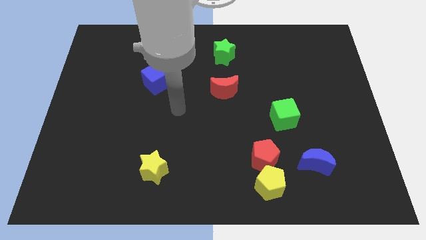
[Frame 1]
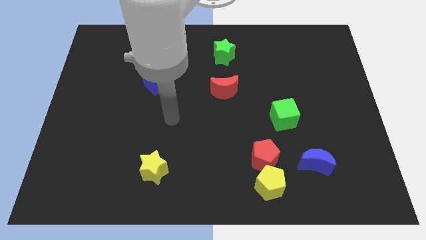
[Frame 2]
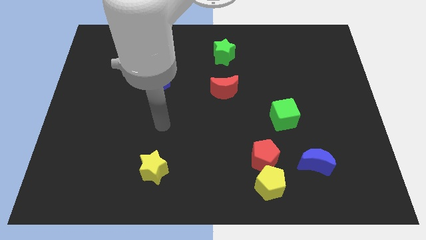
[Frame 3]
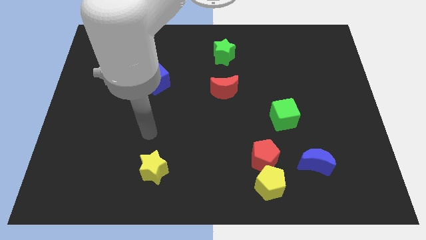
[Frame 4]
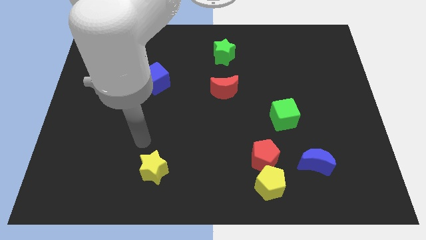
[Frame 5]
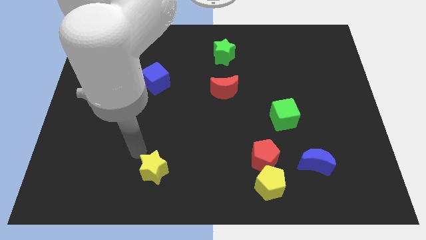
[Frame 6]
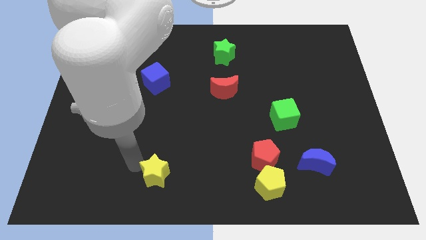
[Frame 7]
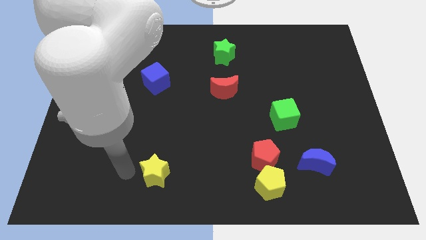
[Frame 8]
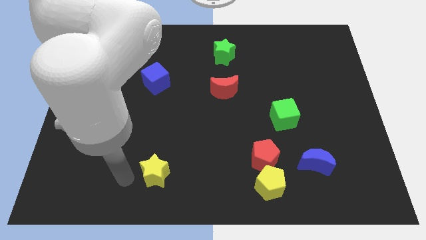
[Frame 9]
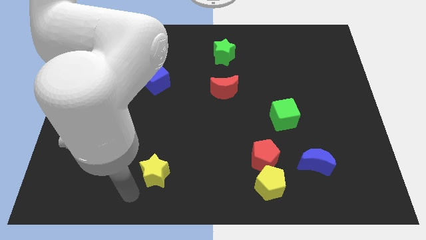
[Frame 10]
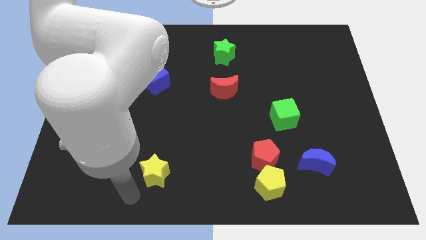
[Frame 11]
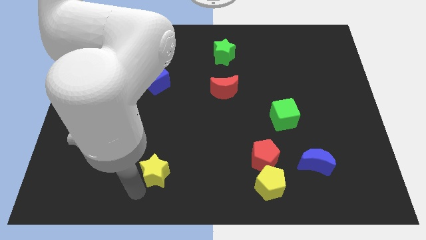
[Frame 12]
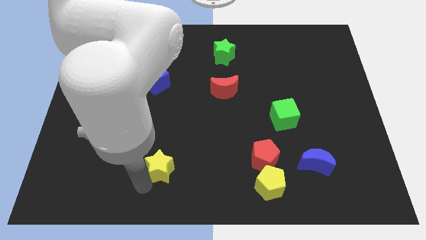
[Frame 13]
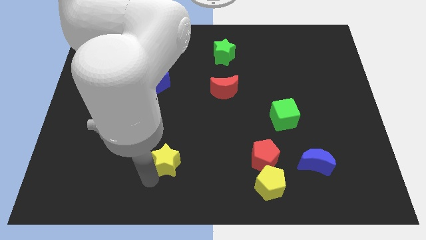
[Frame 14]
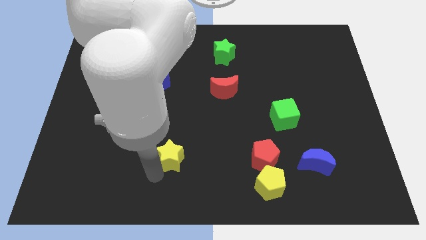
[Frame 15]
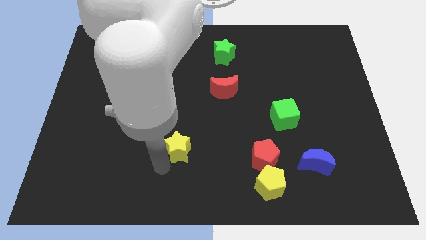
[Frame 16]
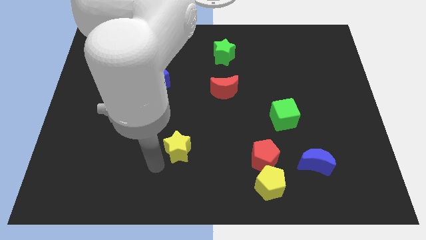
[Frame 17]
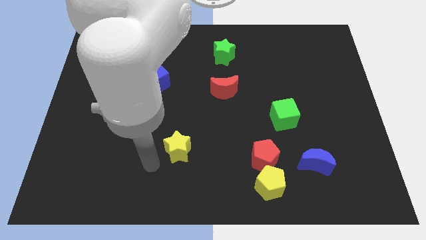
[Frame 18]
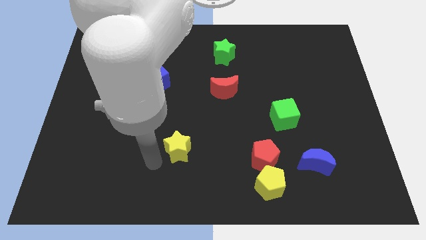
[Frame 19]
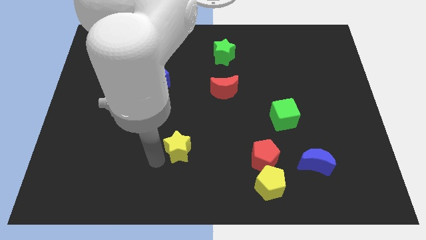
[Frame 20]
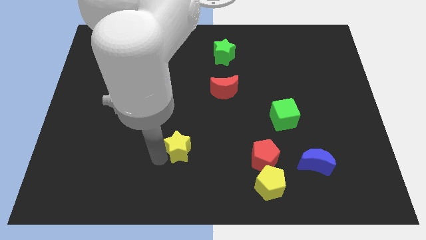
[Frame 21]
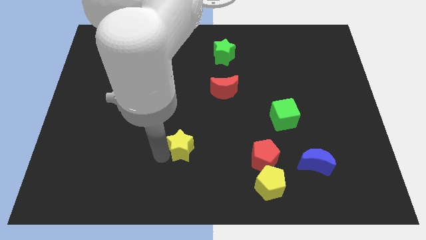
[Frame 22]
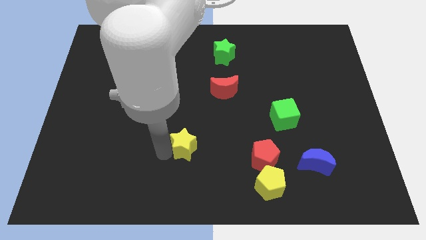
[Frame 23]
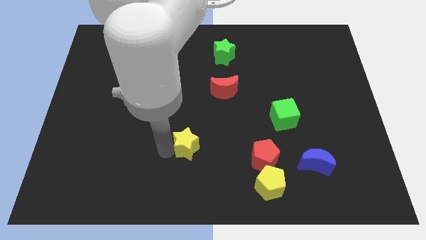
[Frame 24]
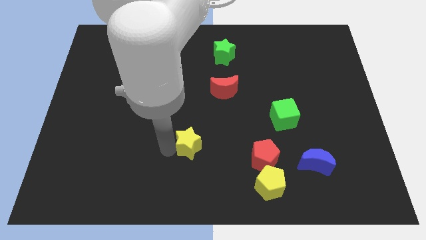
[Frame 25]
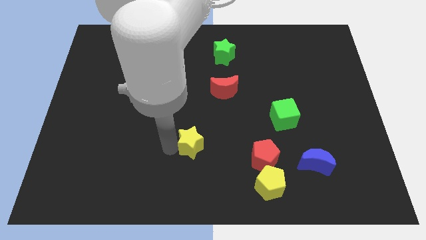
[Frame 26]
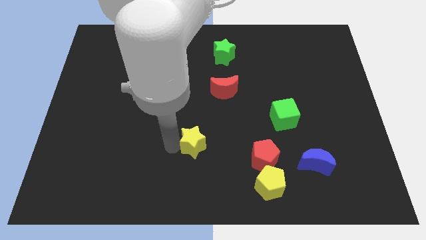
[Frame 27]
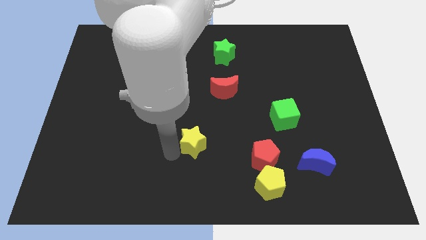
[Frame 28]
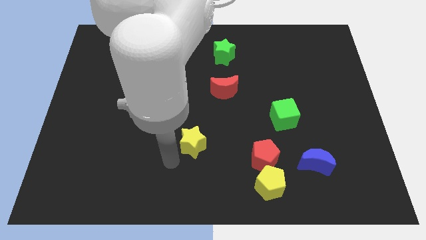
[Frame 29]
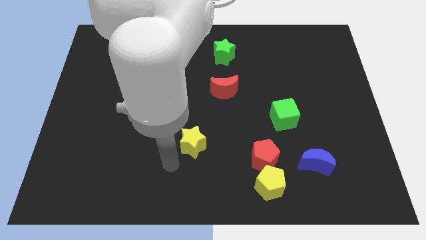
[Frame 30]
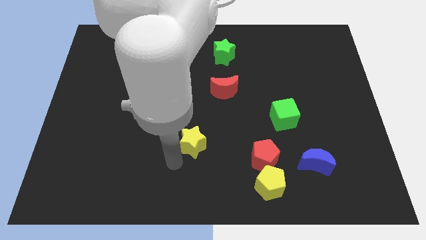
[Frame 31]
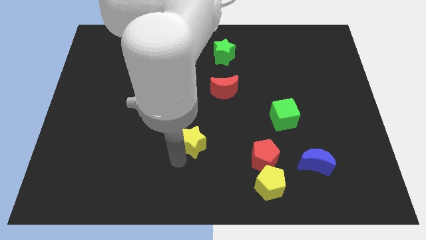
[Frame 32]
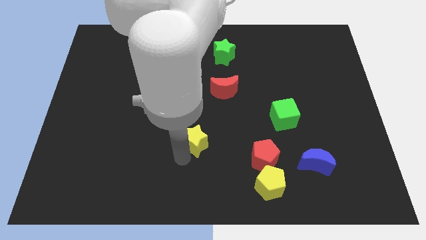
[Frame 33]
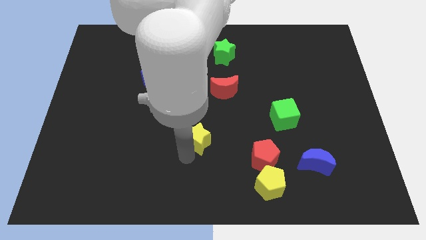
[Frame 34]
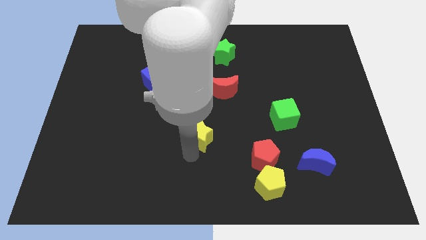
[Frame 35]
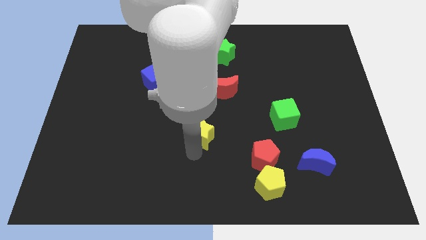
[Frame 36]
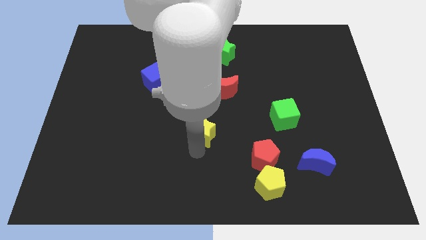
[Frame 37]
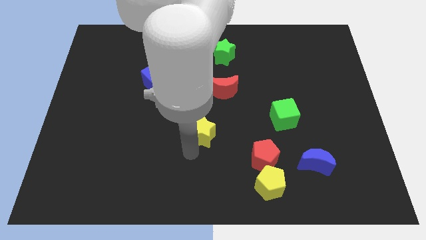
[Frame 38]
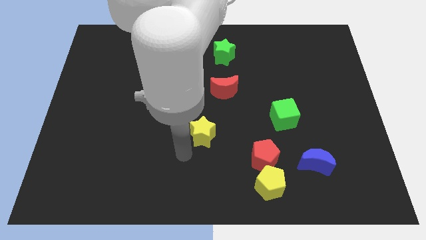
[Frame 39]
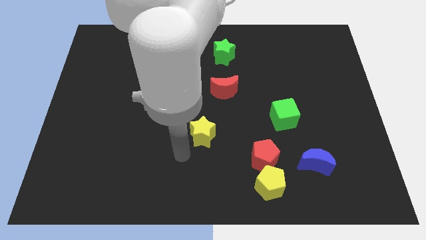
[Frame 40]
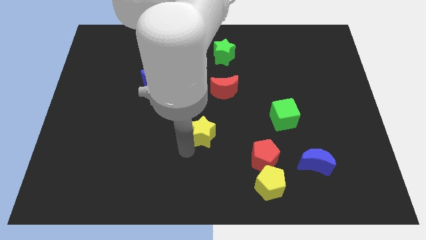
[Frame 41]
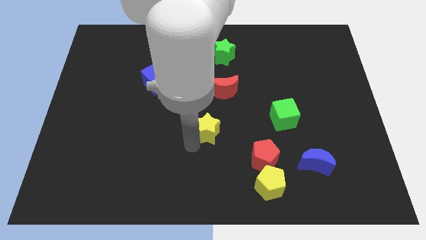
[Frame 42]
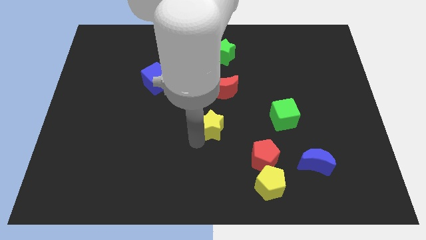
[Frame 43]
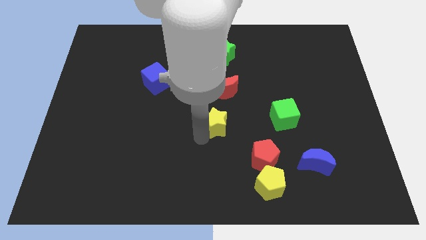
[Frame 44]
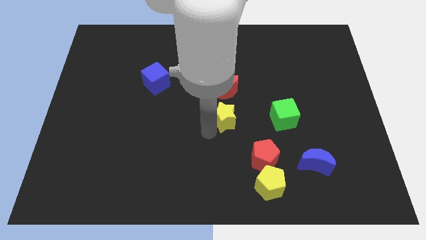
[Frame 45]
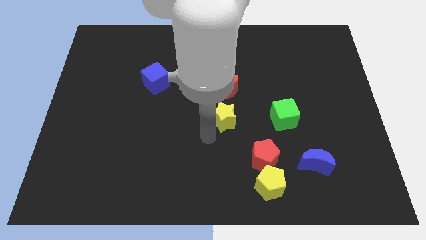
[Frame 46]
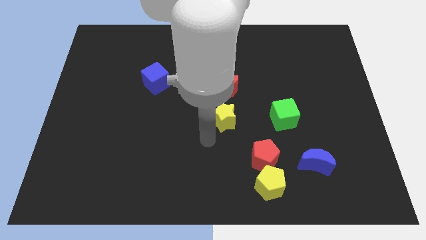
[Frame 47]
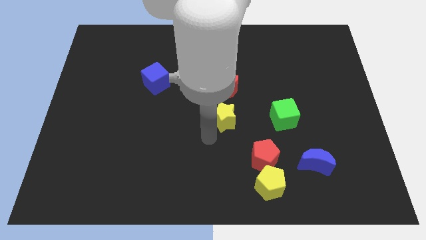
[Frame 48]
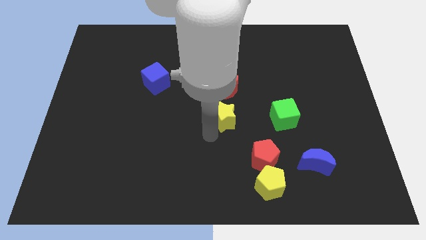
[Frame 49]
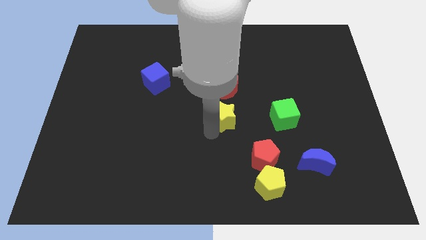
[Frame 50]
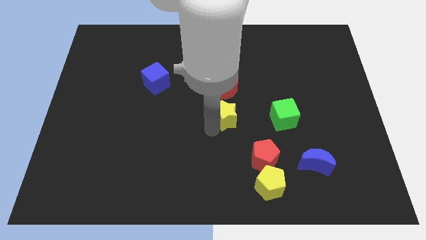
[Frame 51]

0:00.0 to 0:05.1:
slide the yellow star upwards and then to the right

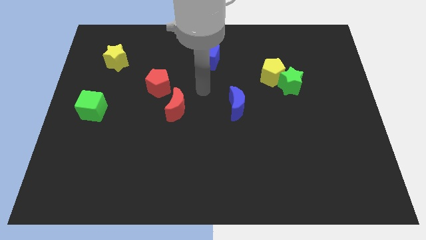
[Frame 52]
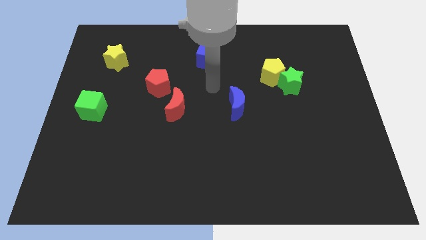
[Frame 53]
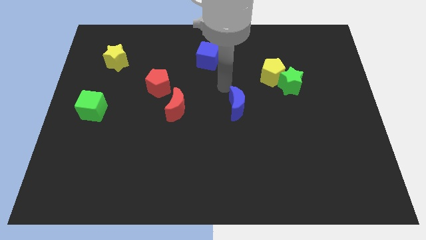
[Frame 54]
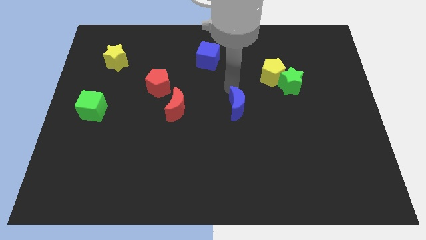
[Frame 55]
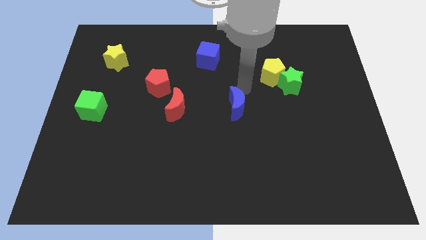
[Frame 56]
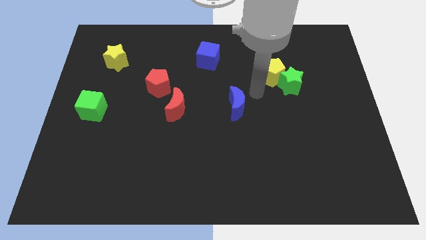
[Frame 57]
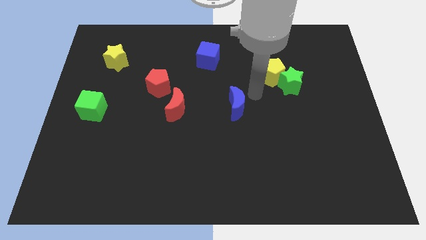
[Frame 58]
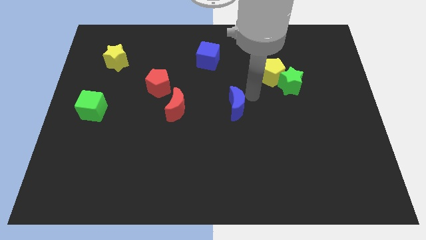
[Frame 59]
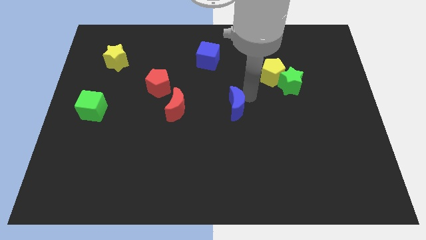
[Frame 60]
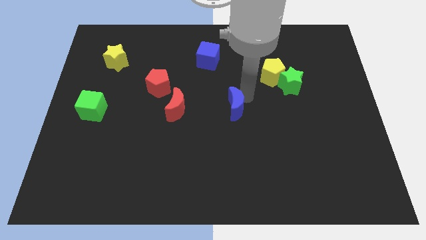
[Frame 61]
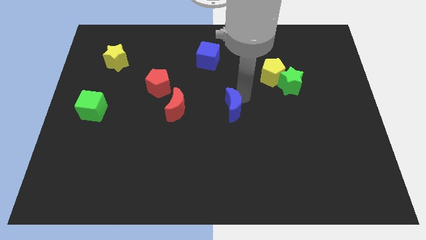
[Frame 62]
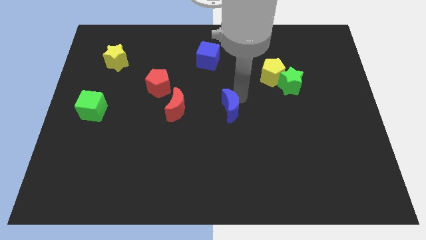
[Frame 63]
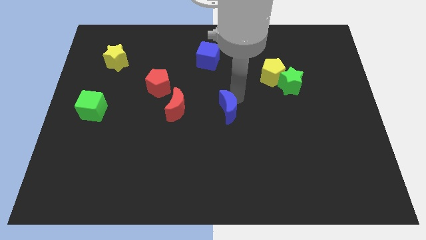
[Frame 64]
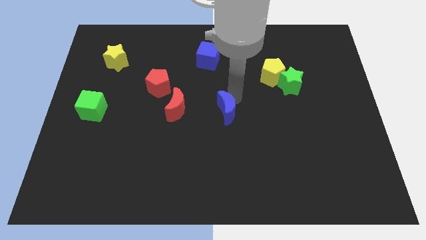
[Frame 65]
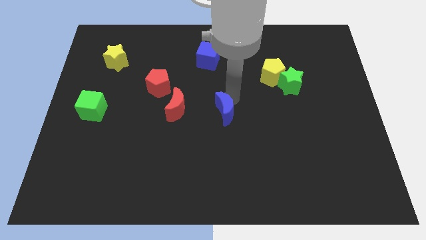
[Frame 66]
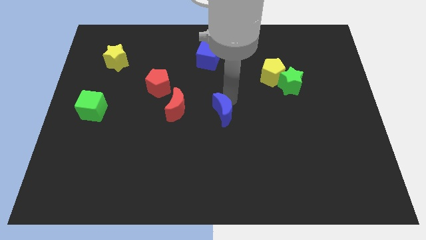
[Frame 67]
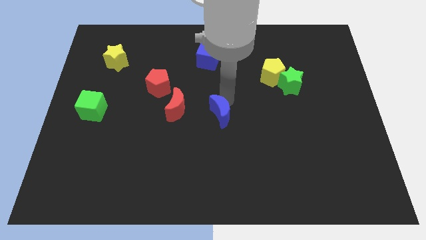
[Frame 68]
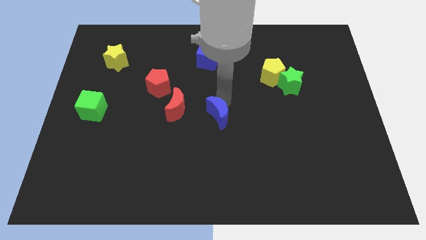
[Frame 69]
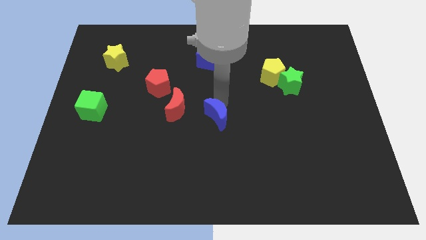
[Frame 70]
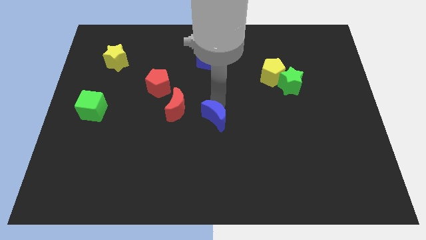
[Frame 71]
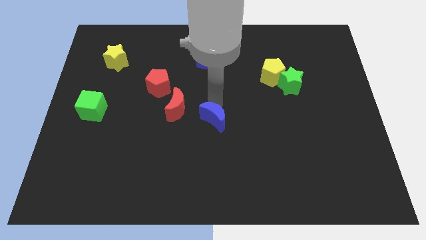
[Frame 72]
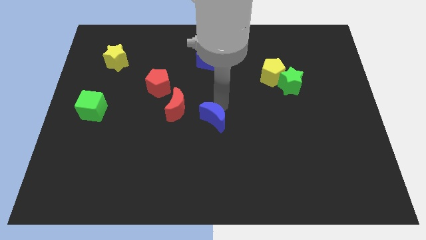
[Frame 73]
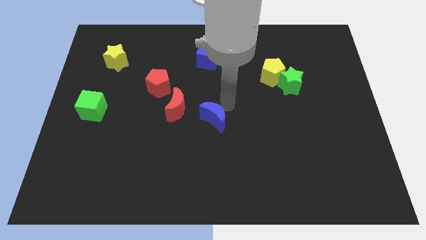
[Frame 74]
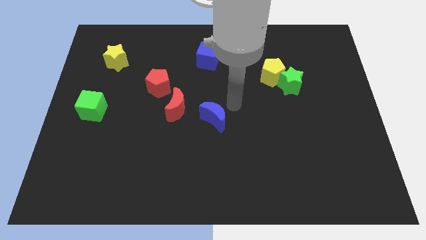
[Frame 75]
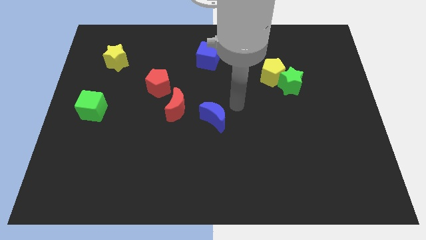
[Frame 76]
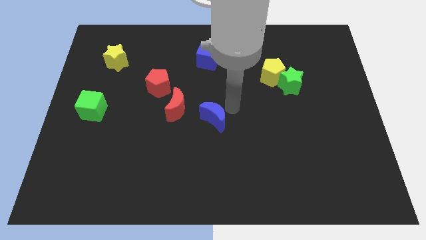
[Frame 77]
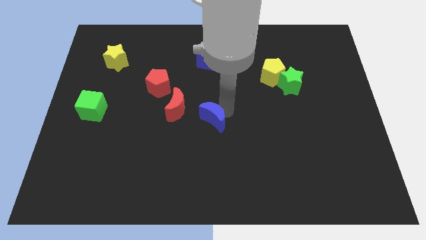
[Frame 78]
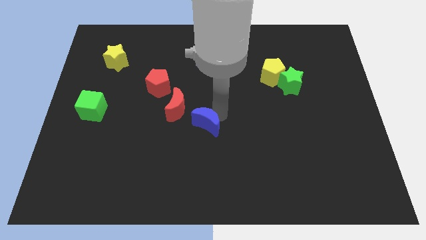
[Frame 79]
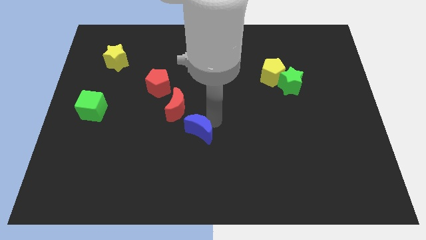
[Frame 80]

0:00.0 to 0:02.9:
move the blue moon to the left a little bit
